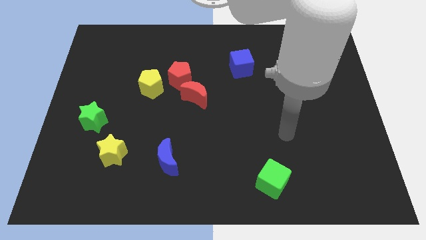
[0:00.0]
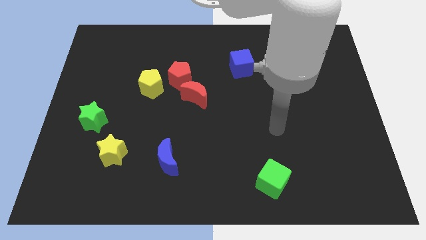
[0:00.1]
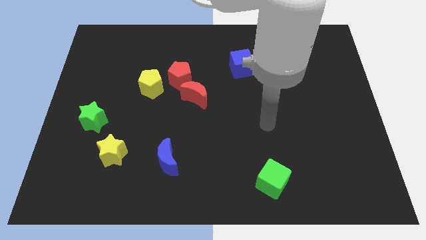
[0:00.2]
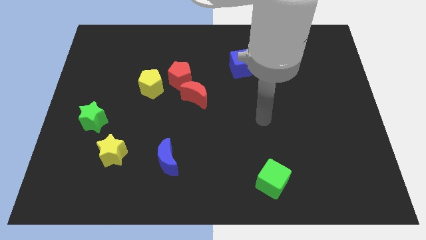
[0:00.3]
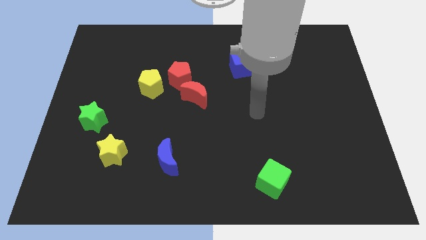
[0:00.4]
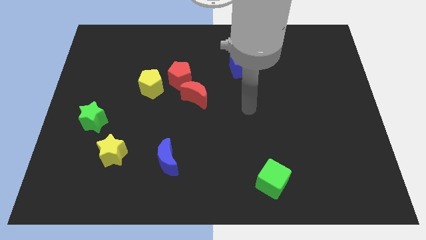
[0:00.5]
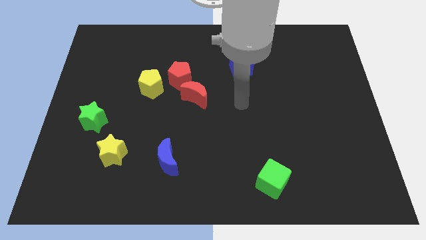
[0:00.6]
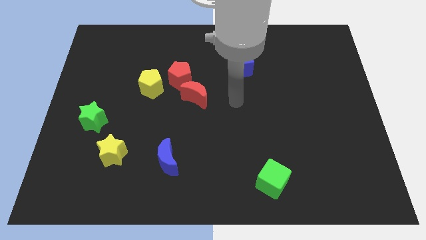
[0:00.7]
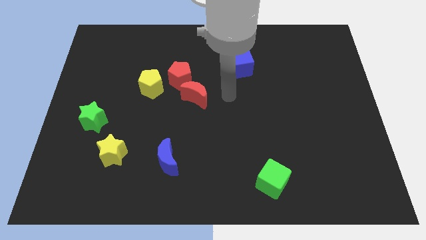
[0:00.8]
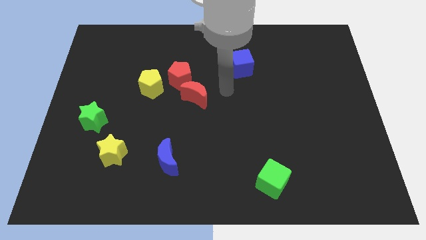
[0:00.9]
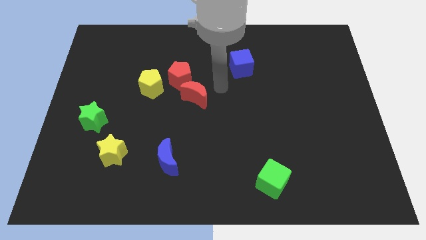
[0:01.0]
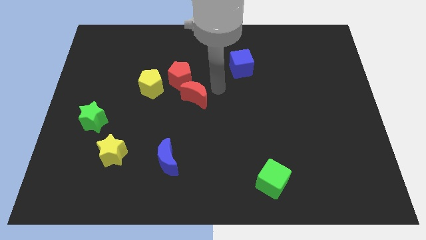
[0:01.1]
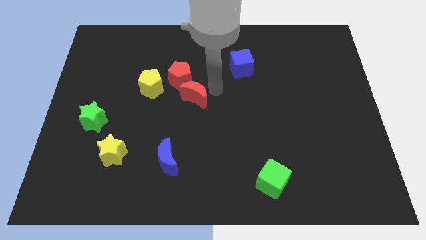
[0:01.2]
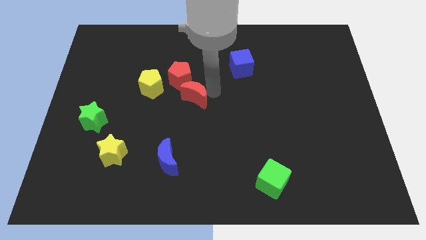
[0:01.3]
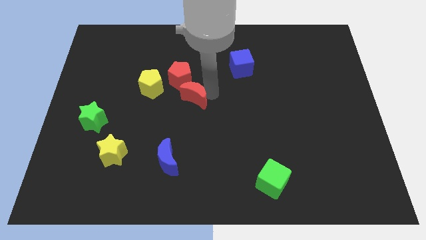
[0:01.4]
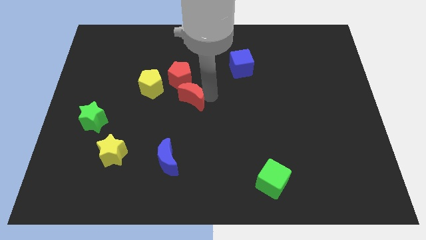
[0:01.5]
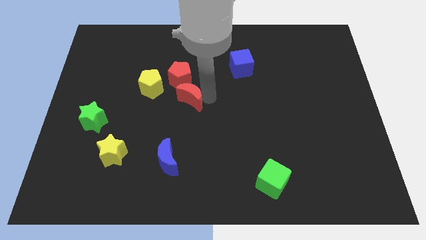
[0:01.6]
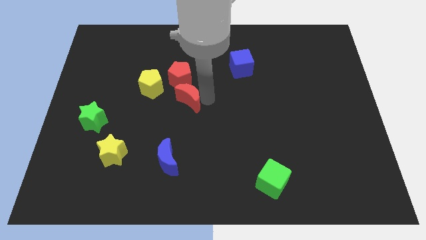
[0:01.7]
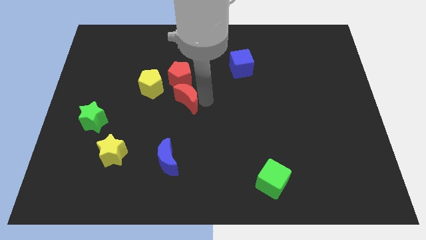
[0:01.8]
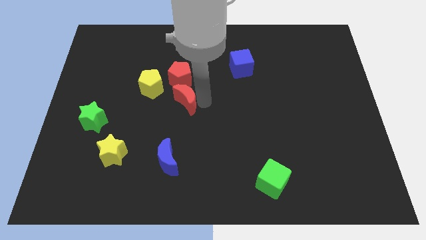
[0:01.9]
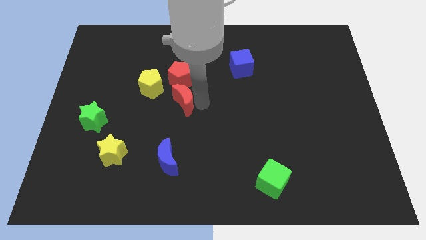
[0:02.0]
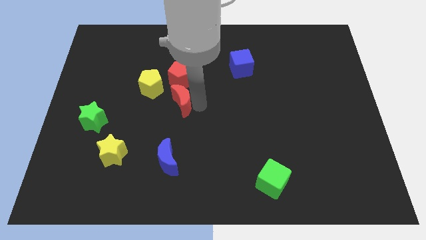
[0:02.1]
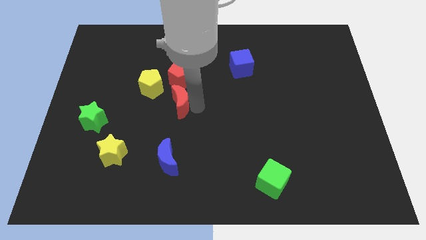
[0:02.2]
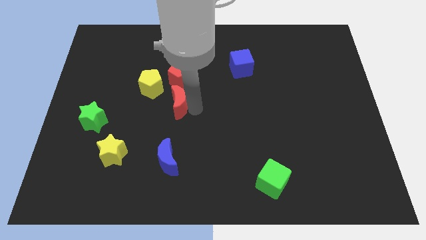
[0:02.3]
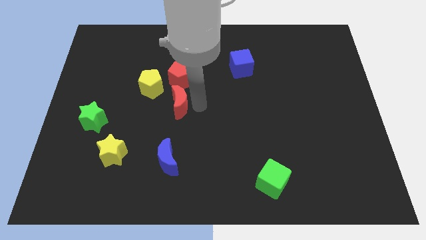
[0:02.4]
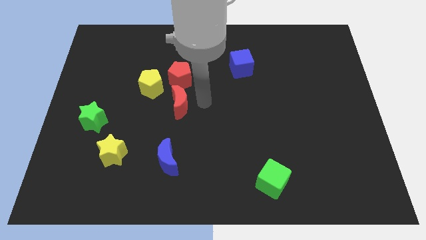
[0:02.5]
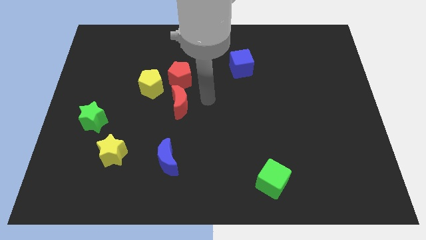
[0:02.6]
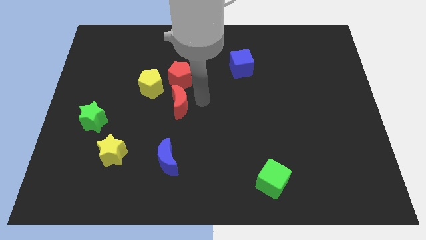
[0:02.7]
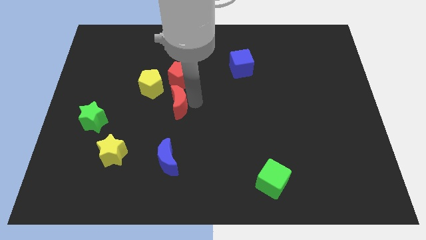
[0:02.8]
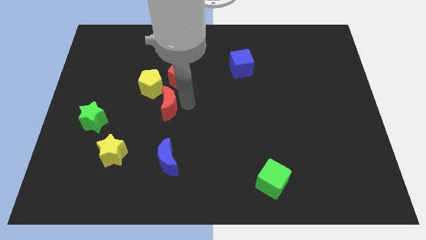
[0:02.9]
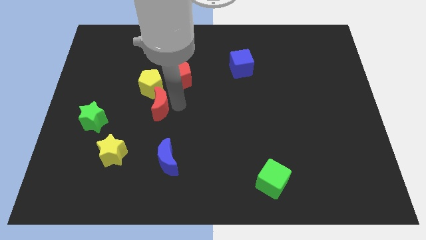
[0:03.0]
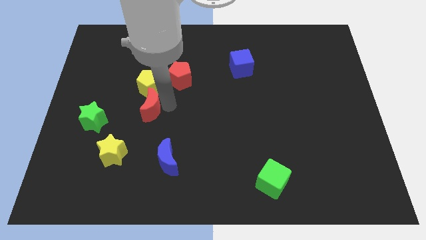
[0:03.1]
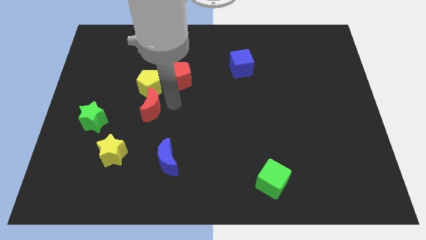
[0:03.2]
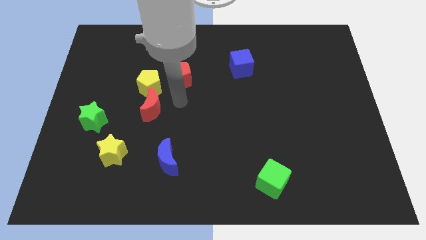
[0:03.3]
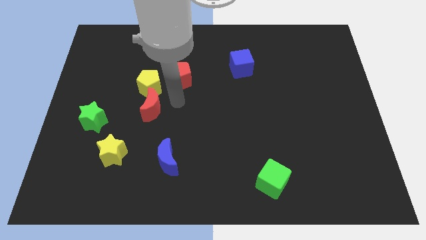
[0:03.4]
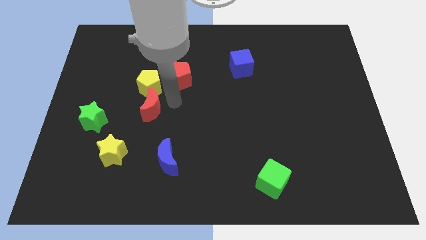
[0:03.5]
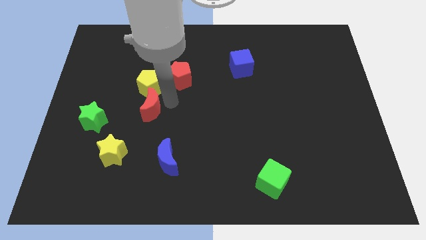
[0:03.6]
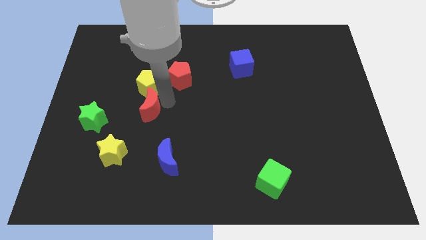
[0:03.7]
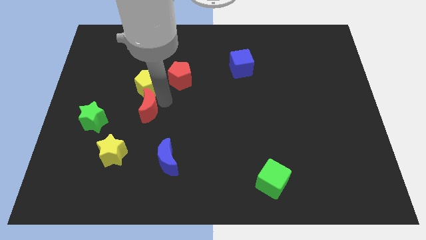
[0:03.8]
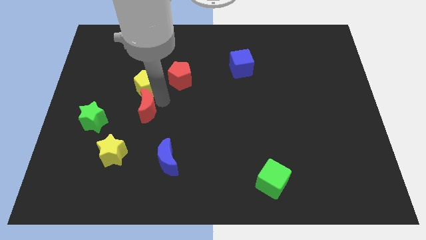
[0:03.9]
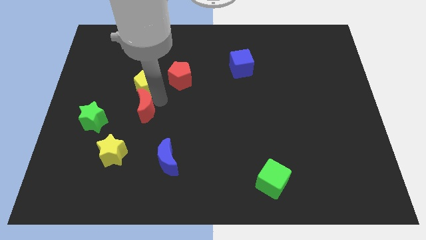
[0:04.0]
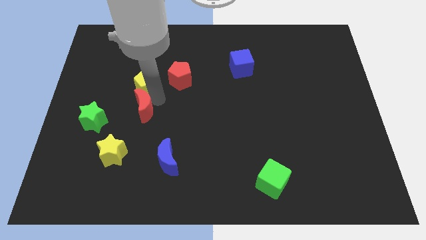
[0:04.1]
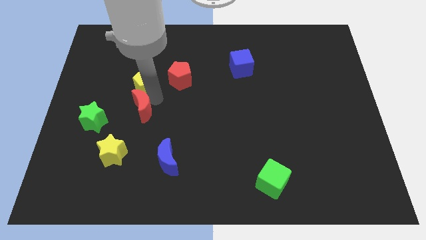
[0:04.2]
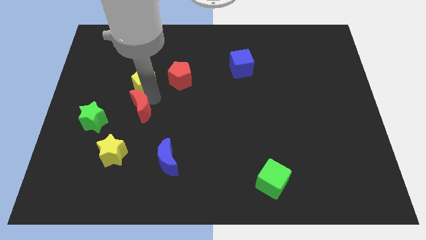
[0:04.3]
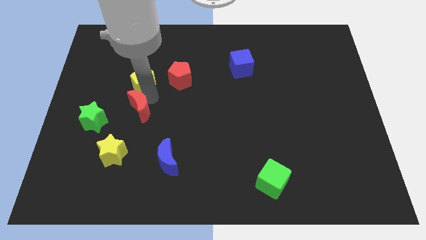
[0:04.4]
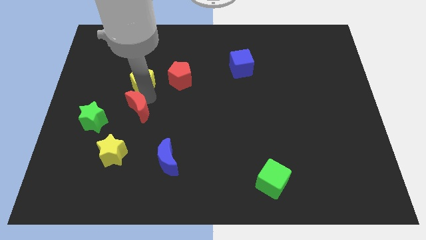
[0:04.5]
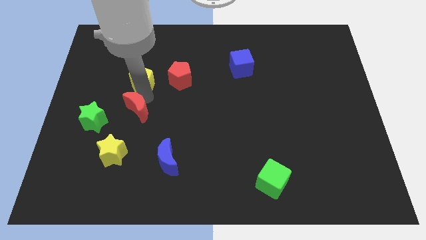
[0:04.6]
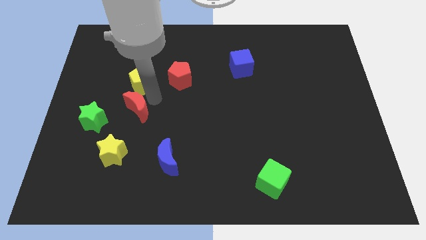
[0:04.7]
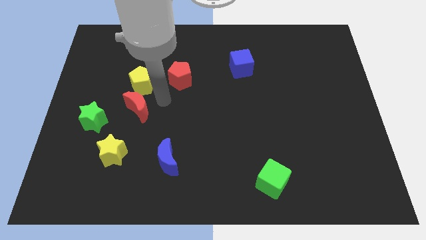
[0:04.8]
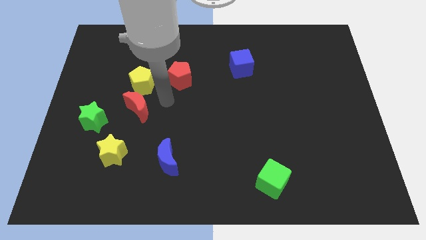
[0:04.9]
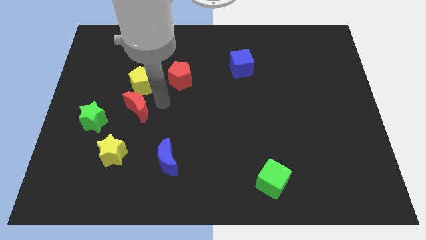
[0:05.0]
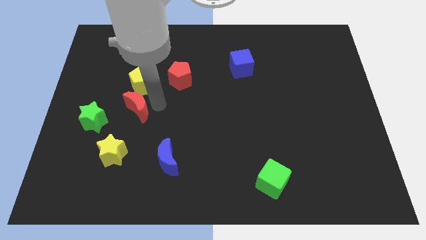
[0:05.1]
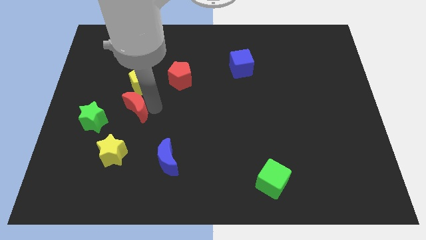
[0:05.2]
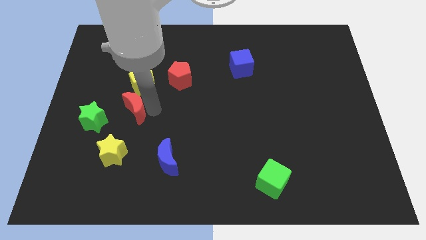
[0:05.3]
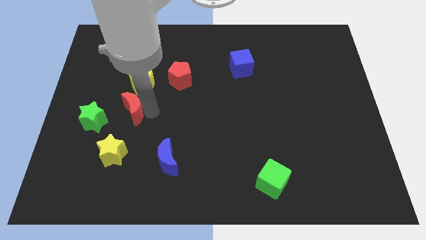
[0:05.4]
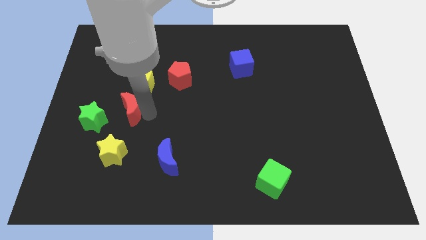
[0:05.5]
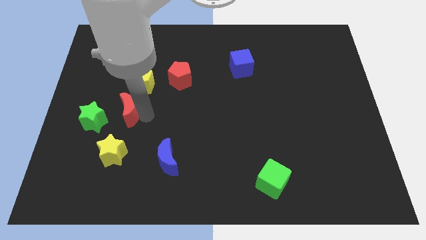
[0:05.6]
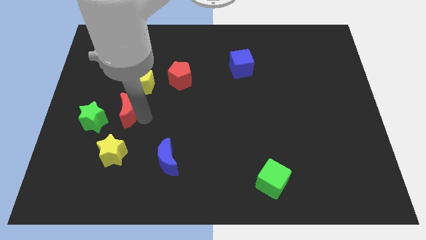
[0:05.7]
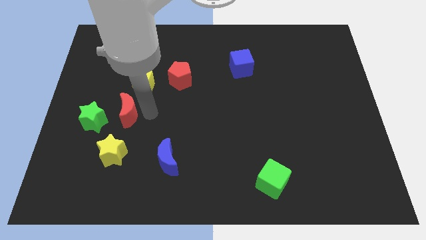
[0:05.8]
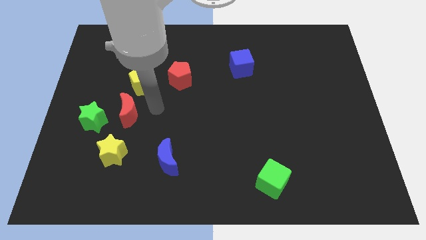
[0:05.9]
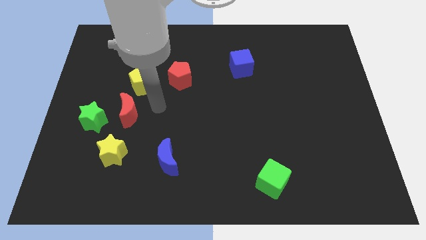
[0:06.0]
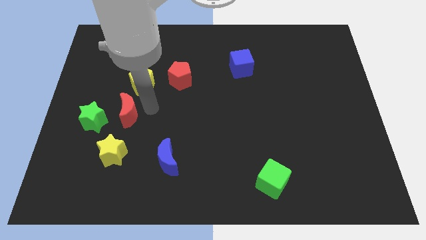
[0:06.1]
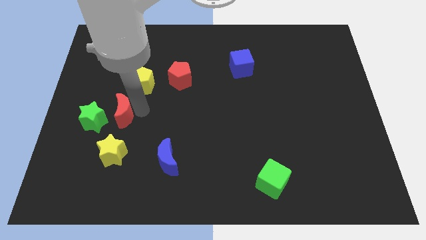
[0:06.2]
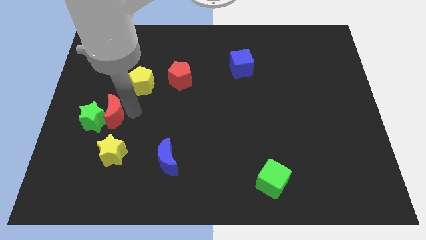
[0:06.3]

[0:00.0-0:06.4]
move the red moon towards the green star

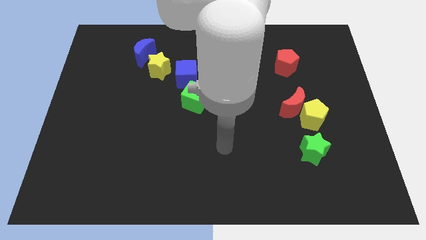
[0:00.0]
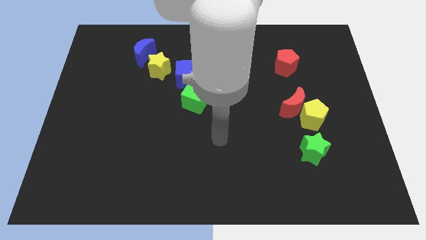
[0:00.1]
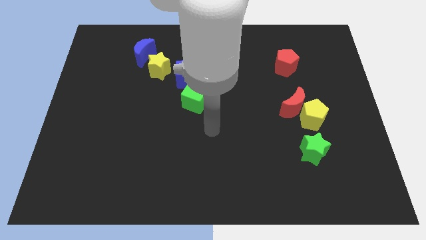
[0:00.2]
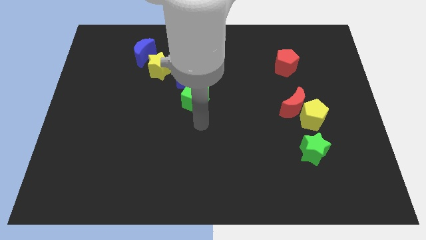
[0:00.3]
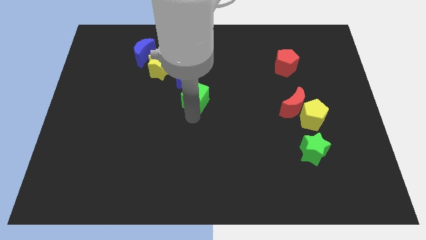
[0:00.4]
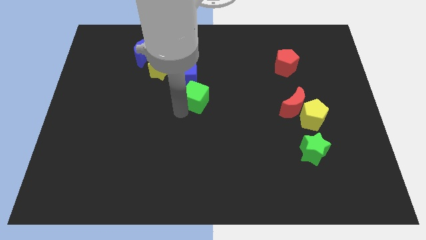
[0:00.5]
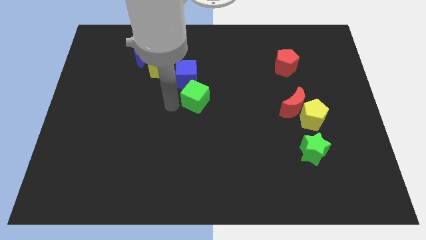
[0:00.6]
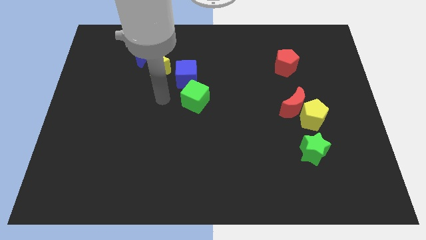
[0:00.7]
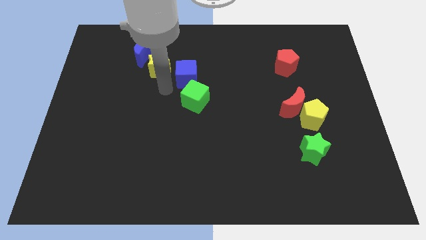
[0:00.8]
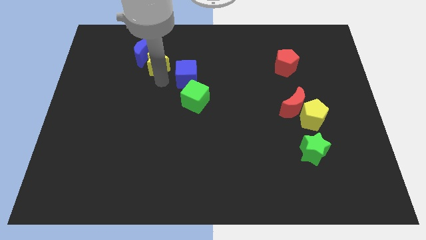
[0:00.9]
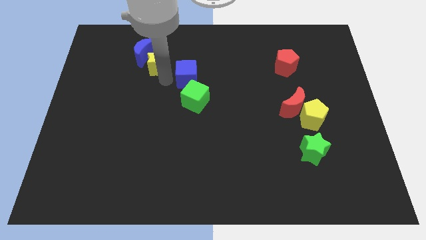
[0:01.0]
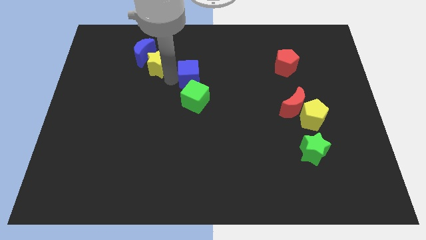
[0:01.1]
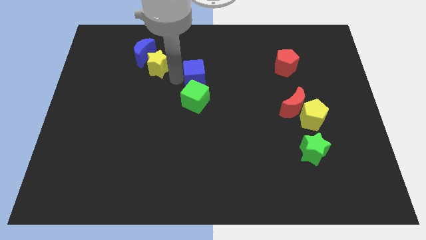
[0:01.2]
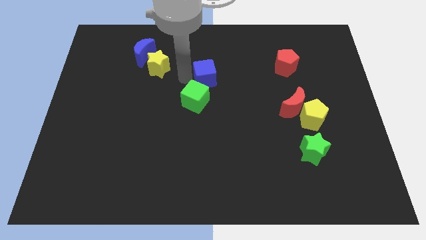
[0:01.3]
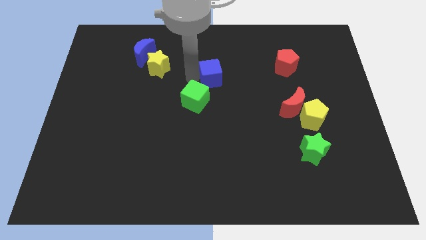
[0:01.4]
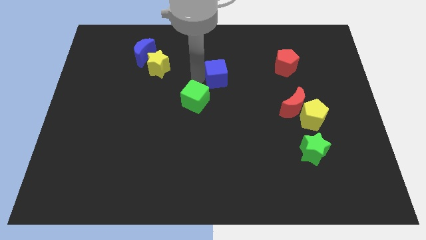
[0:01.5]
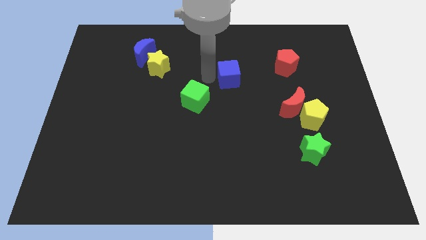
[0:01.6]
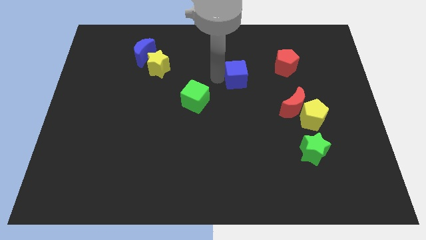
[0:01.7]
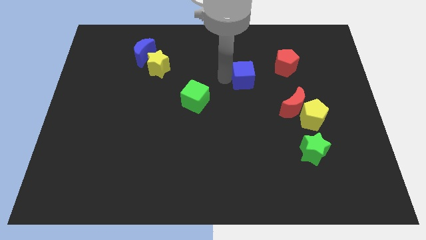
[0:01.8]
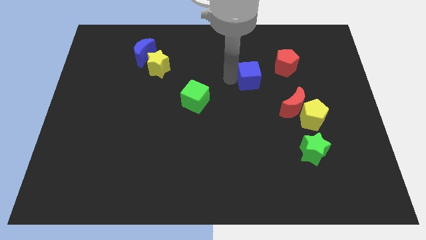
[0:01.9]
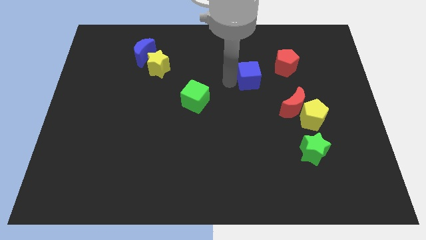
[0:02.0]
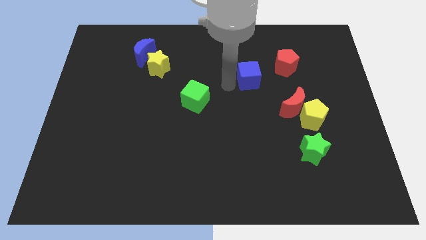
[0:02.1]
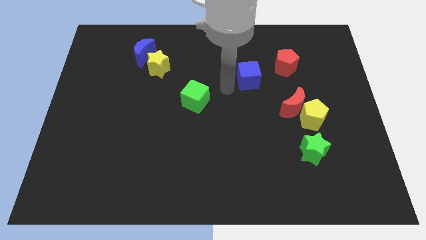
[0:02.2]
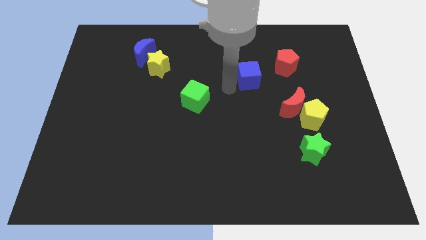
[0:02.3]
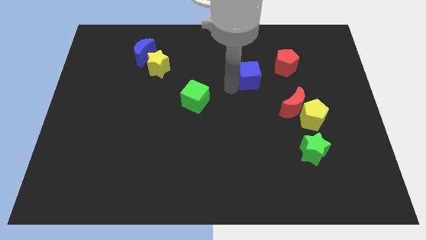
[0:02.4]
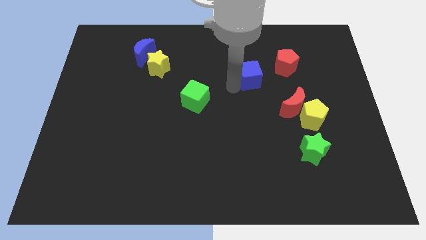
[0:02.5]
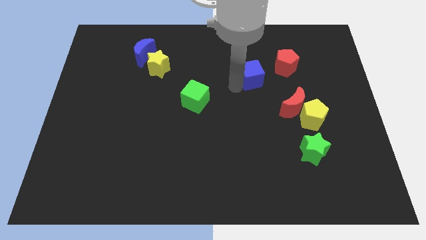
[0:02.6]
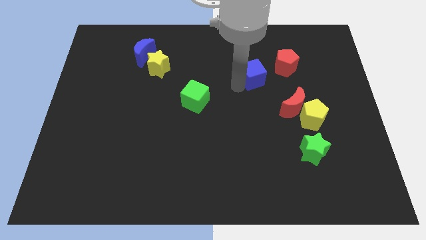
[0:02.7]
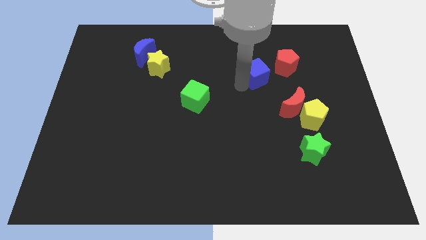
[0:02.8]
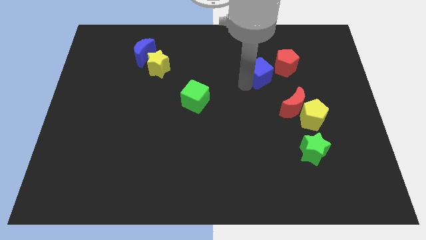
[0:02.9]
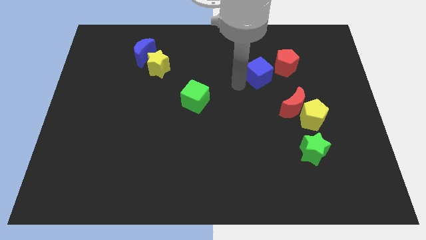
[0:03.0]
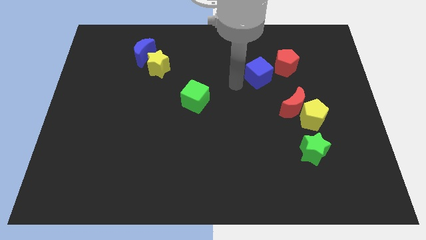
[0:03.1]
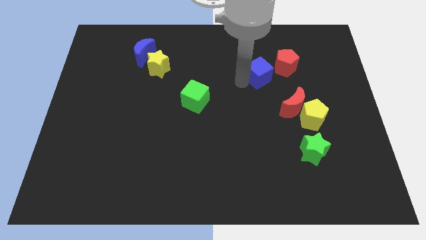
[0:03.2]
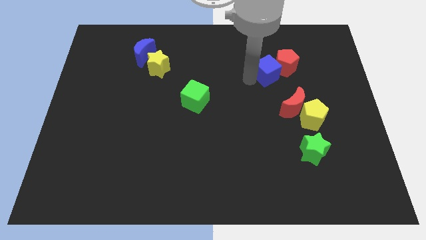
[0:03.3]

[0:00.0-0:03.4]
slide the blue cube next to the red pentagon
